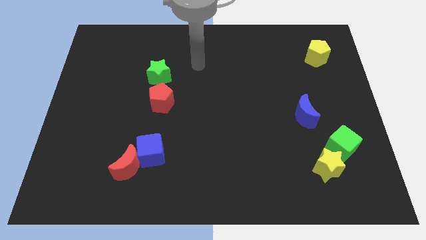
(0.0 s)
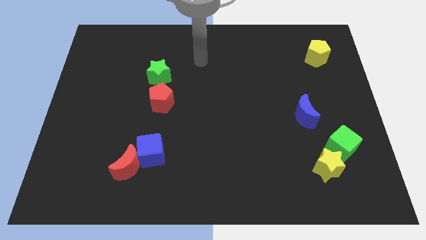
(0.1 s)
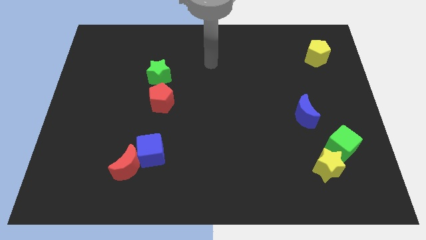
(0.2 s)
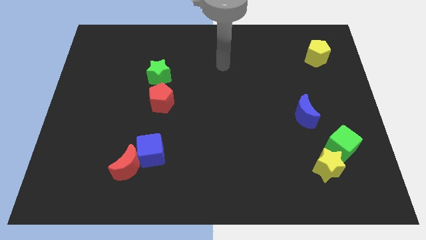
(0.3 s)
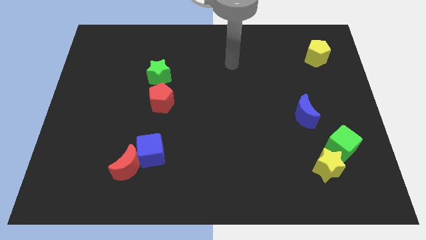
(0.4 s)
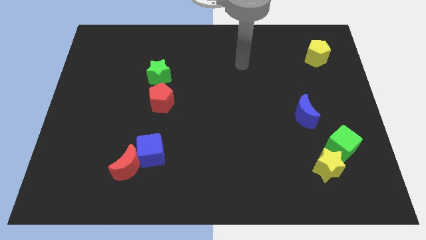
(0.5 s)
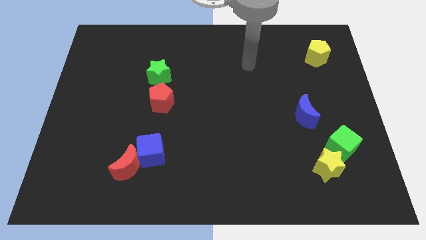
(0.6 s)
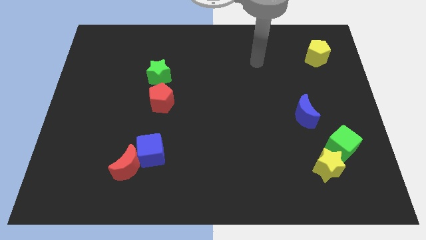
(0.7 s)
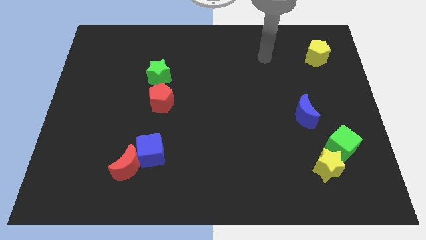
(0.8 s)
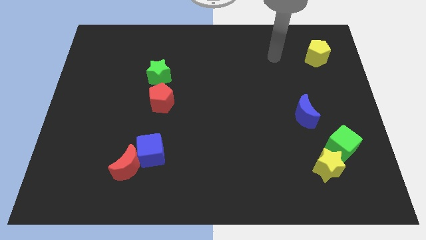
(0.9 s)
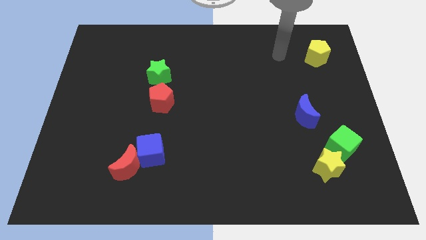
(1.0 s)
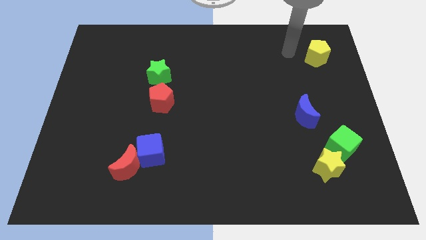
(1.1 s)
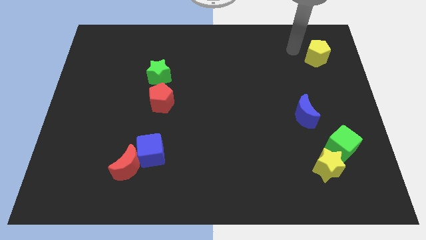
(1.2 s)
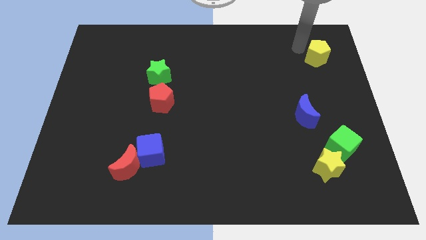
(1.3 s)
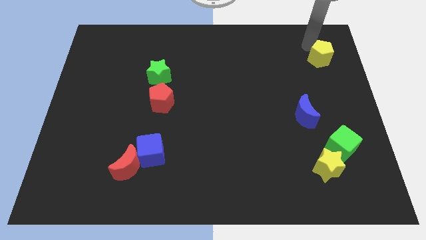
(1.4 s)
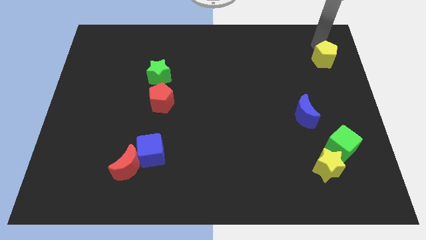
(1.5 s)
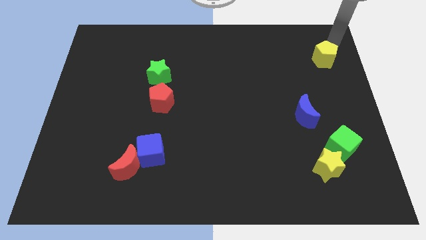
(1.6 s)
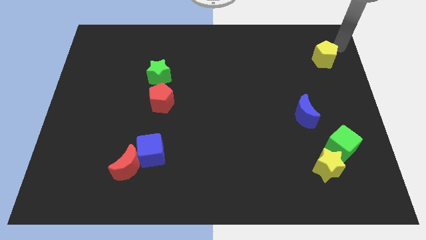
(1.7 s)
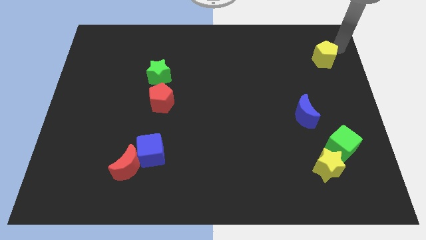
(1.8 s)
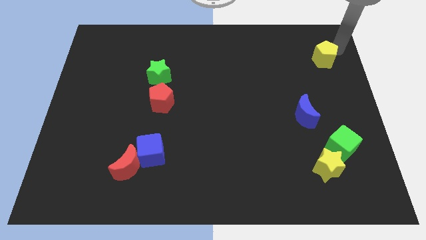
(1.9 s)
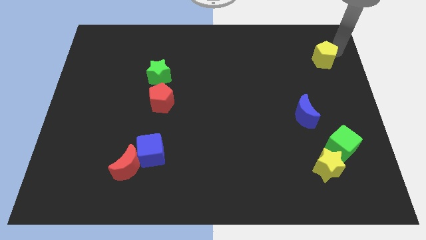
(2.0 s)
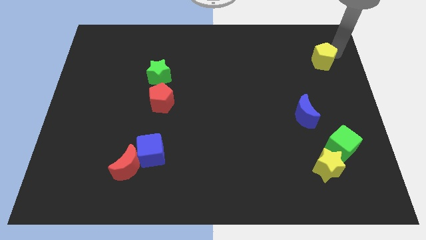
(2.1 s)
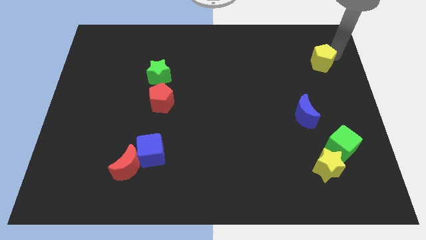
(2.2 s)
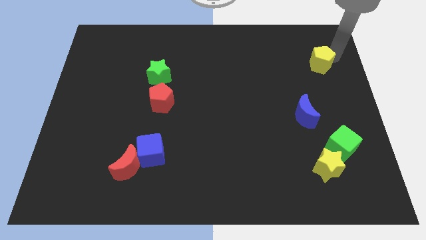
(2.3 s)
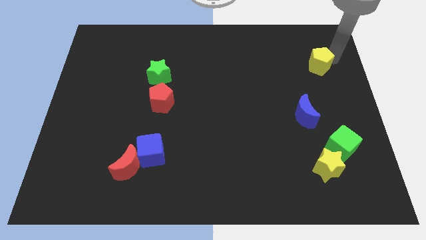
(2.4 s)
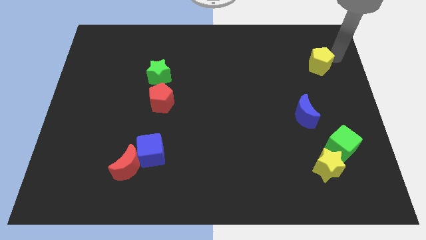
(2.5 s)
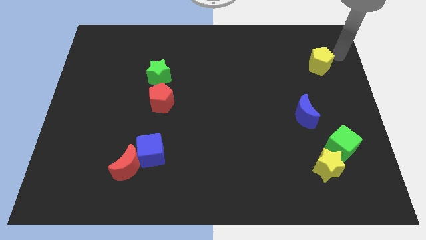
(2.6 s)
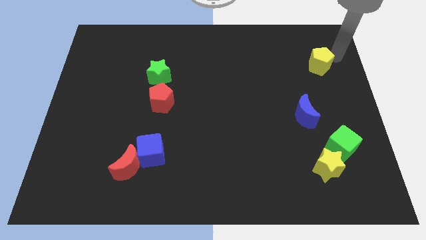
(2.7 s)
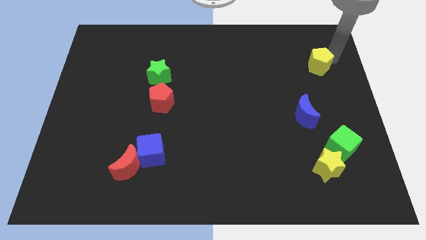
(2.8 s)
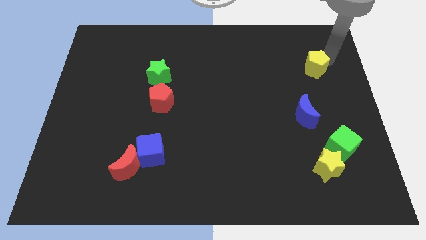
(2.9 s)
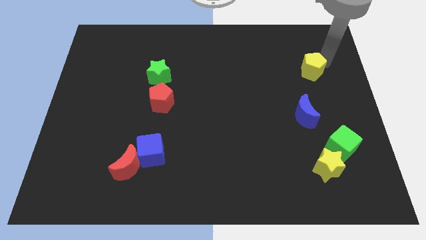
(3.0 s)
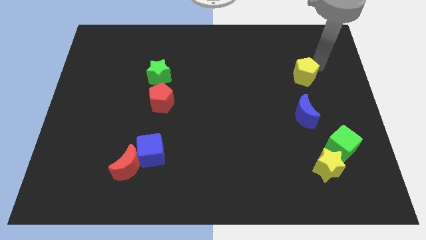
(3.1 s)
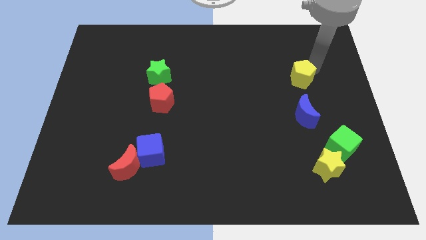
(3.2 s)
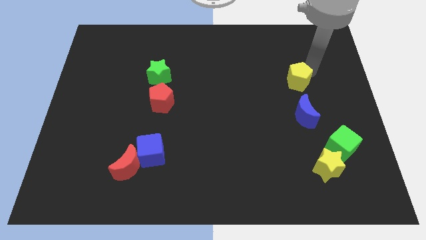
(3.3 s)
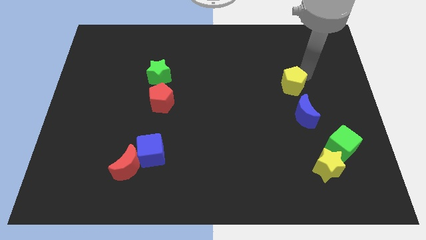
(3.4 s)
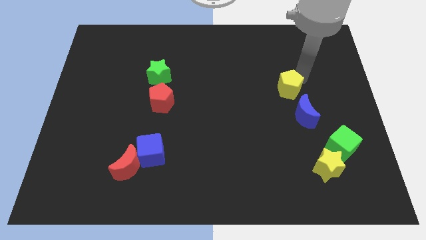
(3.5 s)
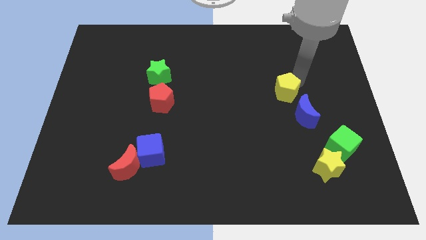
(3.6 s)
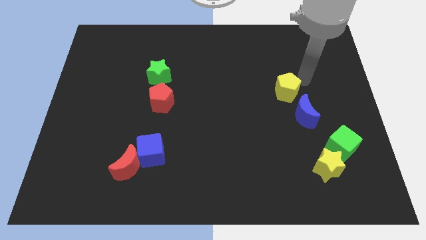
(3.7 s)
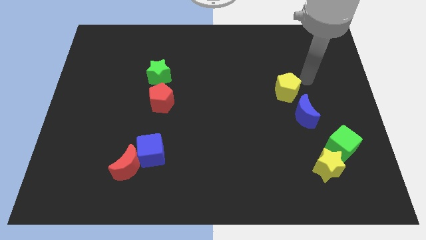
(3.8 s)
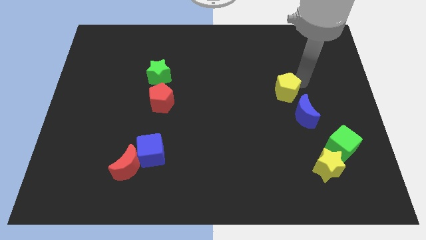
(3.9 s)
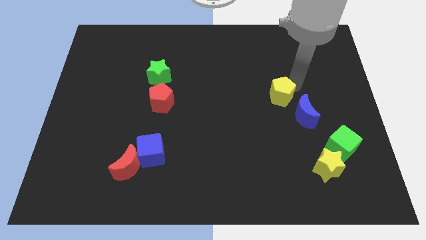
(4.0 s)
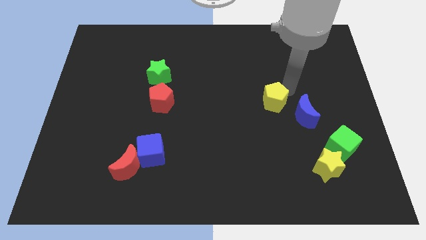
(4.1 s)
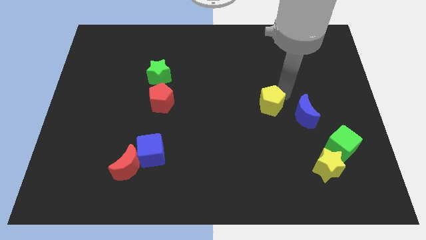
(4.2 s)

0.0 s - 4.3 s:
move the yellow pentagon down and then to the left

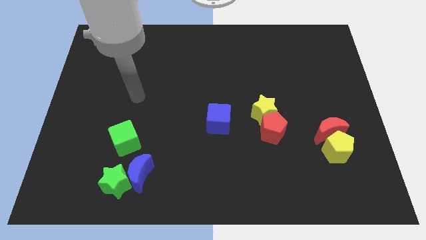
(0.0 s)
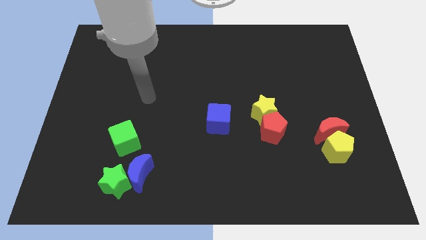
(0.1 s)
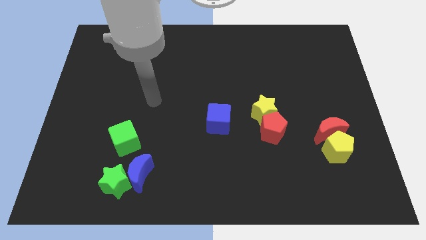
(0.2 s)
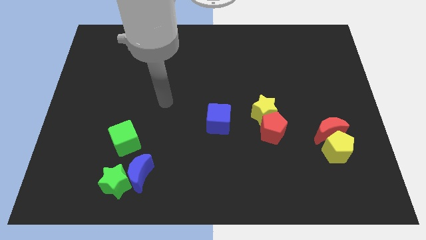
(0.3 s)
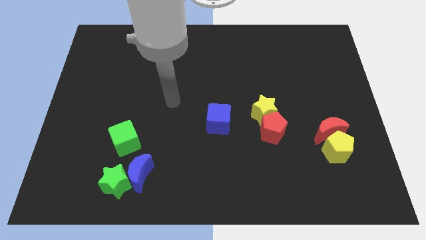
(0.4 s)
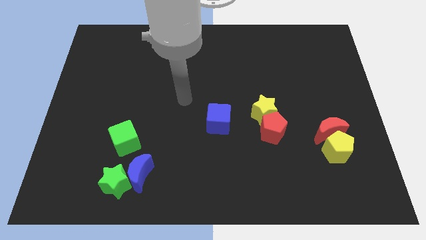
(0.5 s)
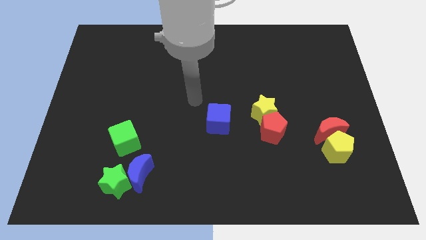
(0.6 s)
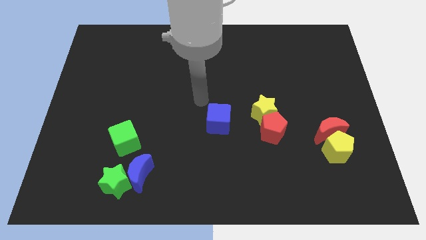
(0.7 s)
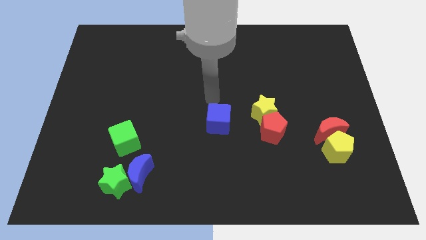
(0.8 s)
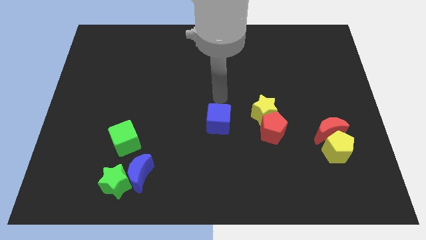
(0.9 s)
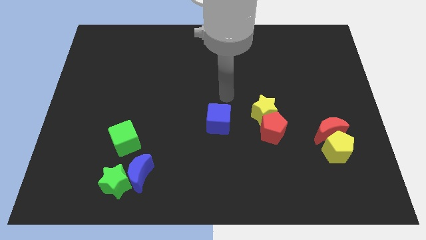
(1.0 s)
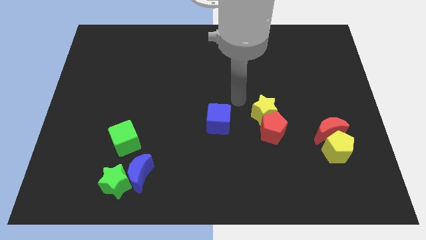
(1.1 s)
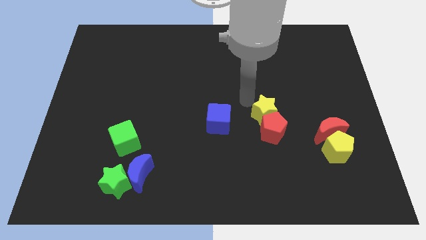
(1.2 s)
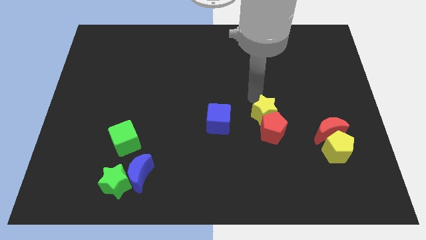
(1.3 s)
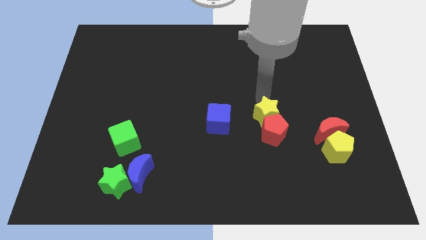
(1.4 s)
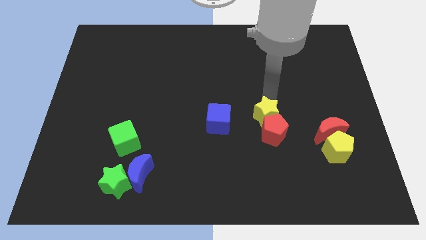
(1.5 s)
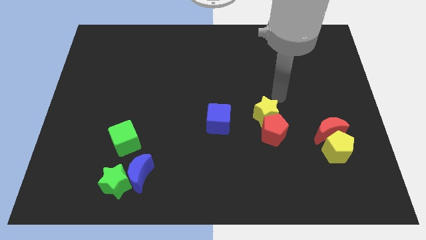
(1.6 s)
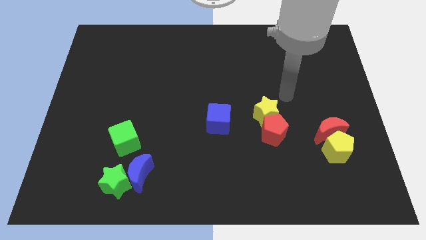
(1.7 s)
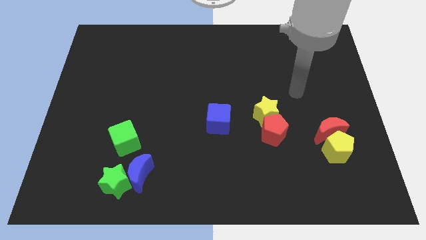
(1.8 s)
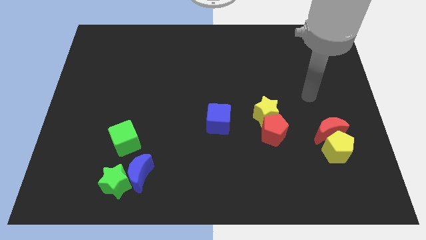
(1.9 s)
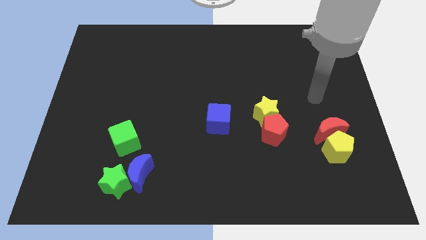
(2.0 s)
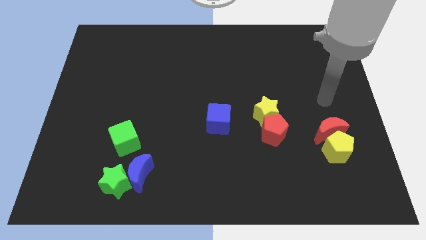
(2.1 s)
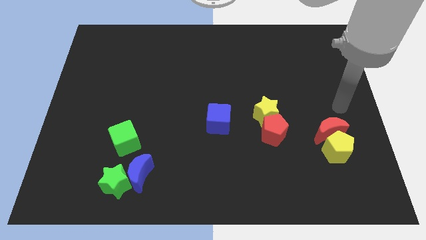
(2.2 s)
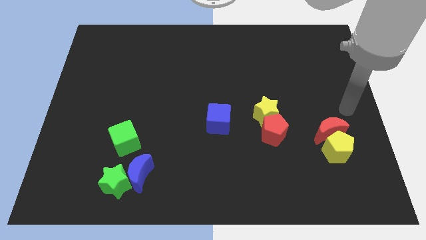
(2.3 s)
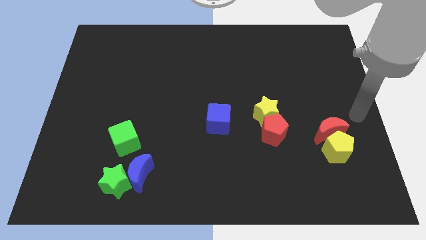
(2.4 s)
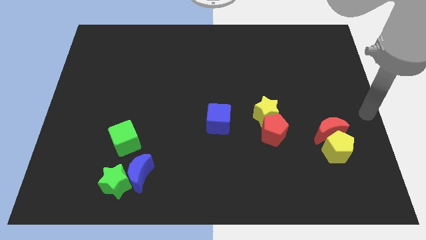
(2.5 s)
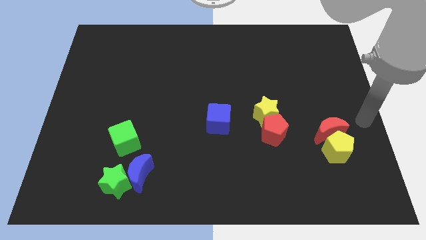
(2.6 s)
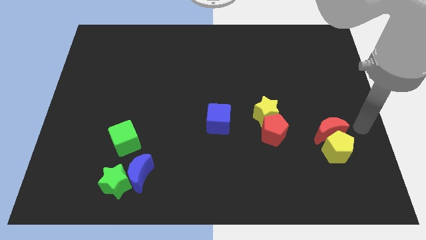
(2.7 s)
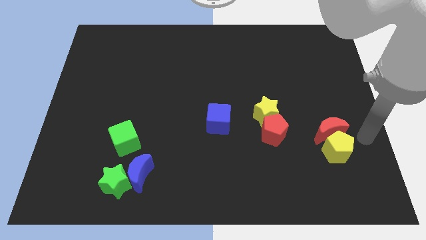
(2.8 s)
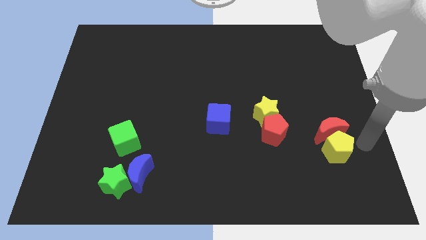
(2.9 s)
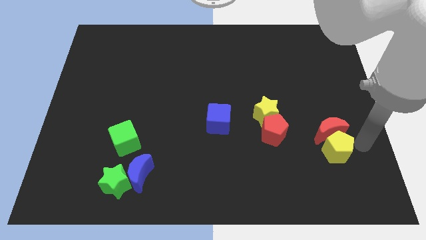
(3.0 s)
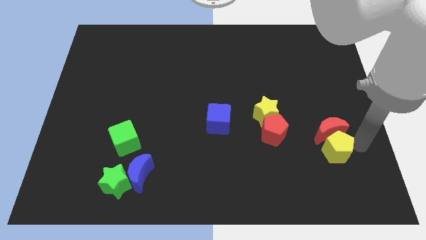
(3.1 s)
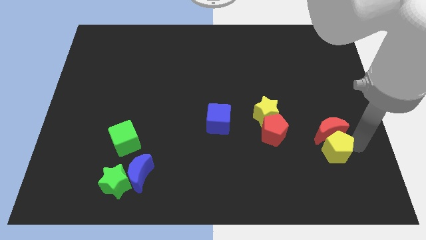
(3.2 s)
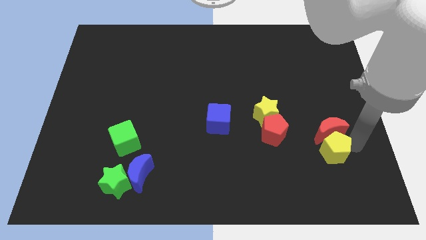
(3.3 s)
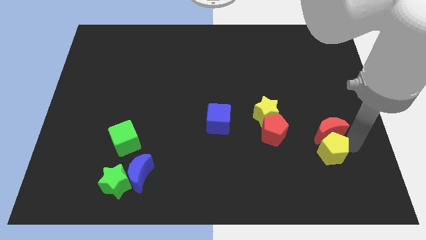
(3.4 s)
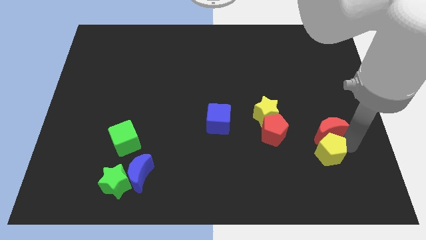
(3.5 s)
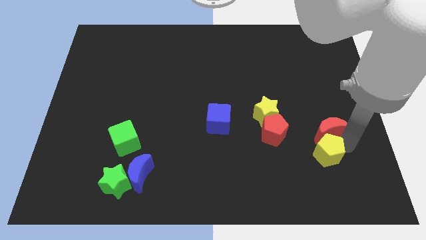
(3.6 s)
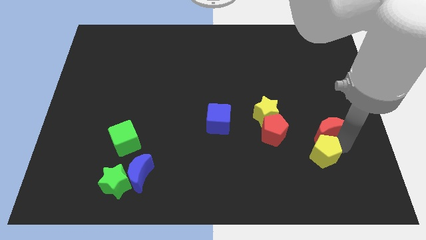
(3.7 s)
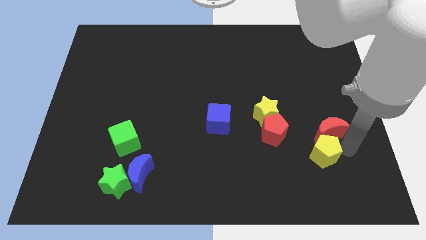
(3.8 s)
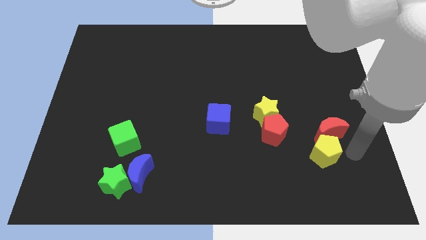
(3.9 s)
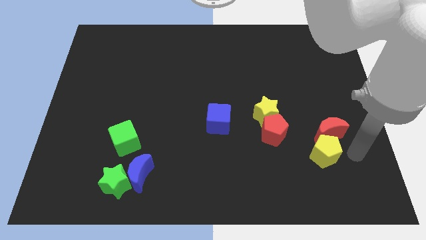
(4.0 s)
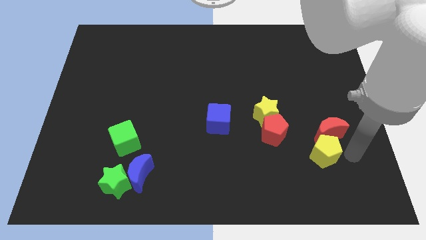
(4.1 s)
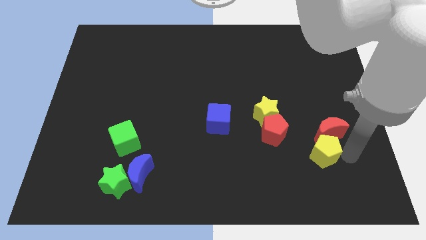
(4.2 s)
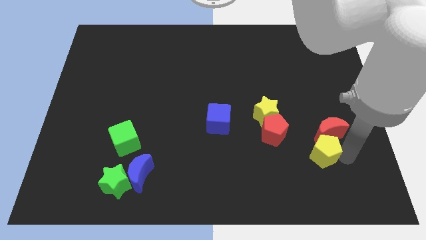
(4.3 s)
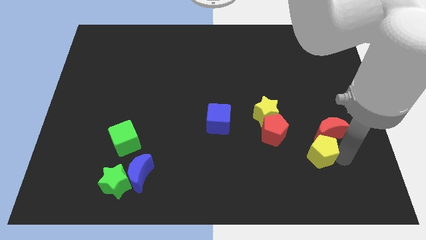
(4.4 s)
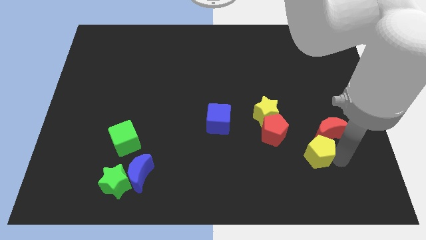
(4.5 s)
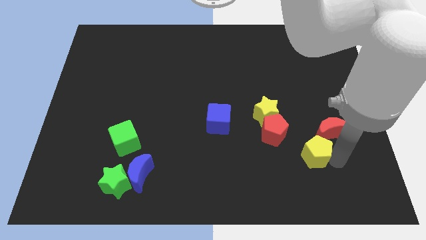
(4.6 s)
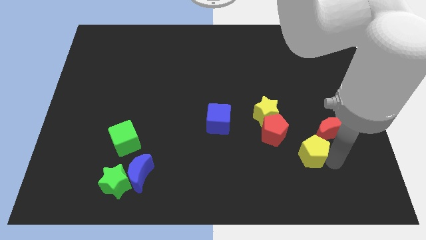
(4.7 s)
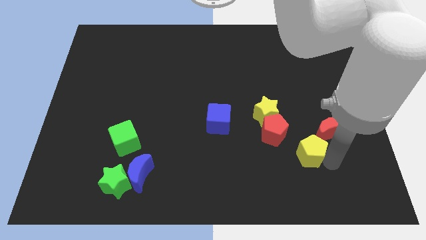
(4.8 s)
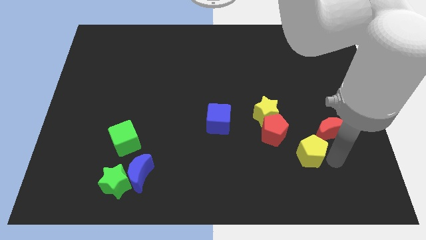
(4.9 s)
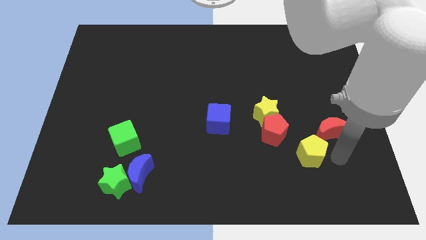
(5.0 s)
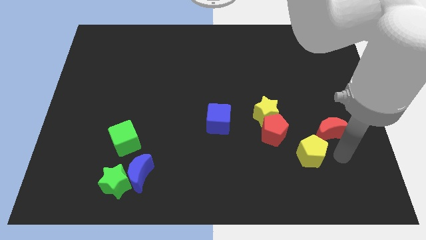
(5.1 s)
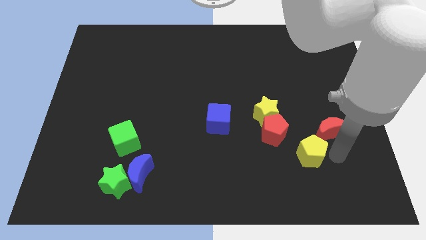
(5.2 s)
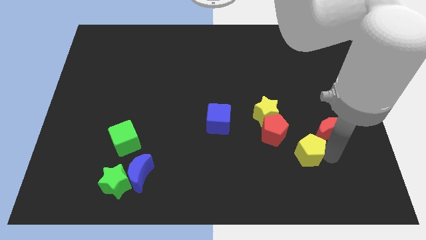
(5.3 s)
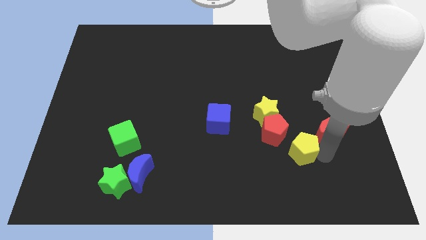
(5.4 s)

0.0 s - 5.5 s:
slightly slide the yellow pentagon to the left
